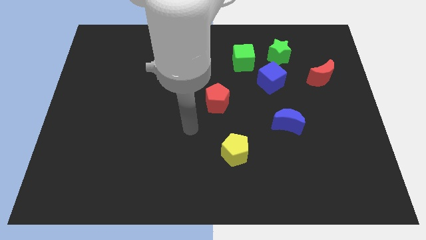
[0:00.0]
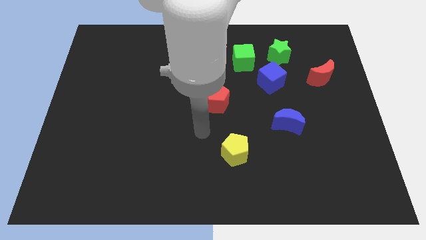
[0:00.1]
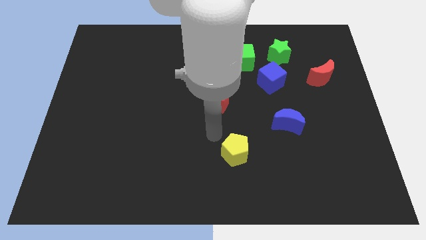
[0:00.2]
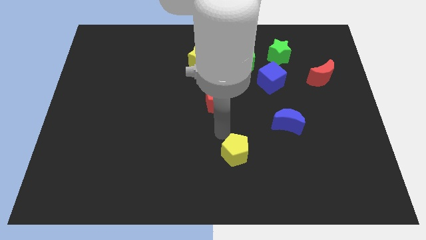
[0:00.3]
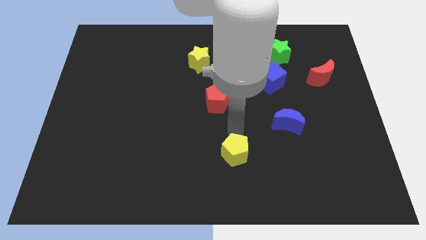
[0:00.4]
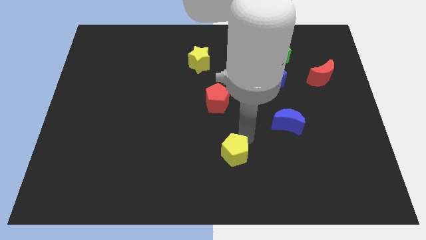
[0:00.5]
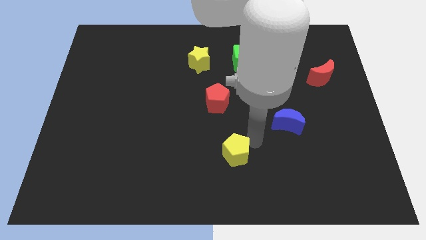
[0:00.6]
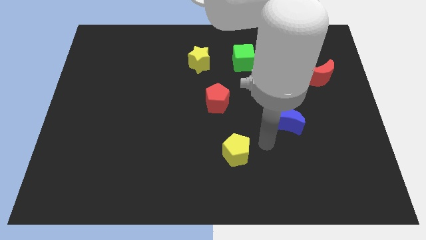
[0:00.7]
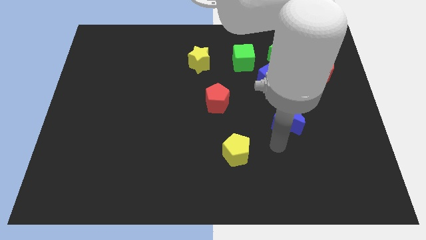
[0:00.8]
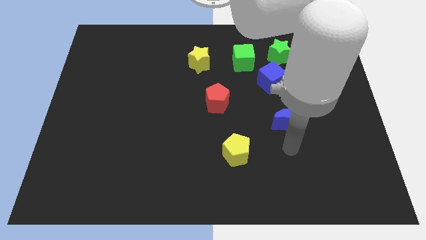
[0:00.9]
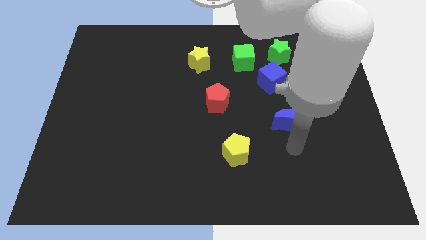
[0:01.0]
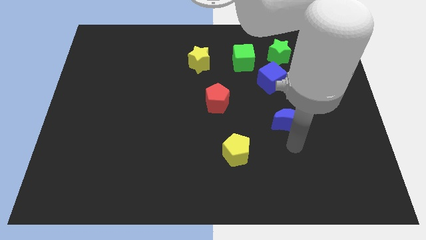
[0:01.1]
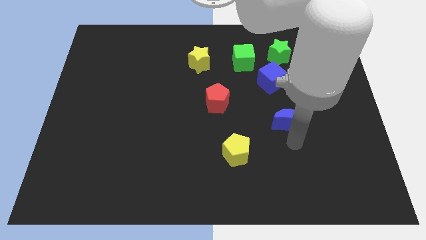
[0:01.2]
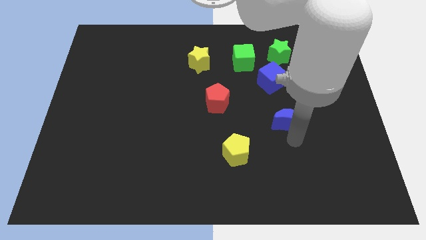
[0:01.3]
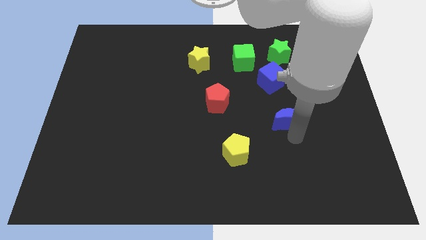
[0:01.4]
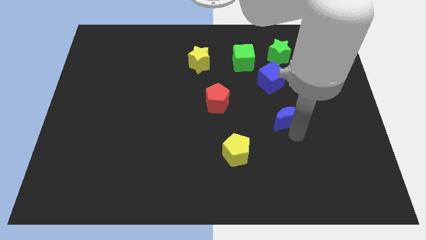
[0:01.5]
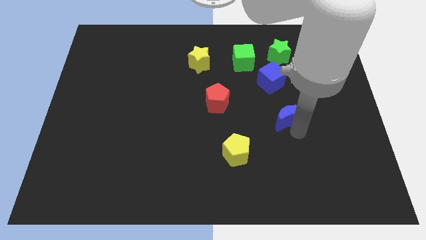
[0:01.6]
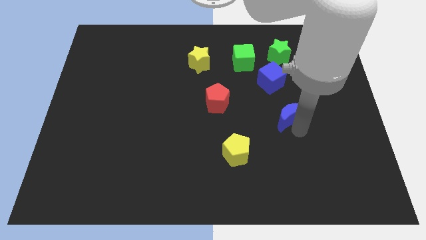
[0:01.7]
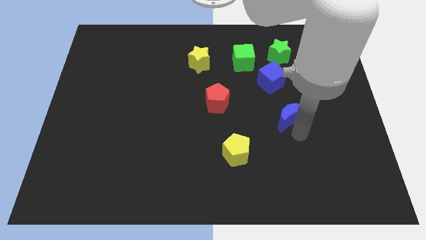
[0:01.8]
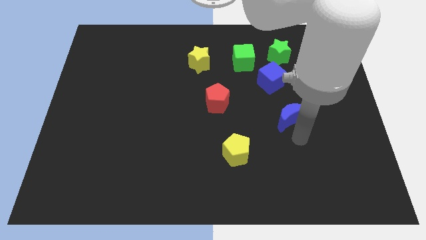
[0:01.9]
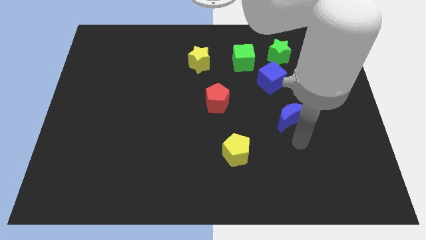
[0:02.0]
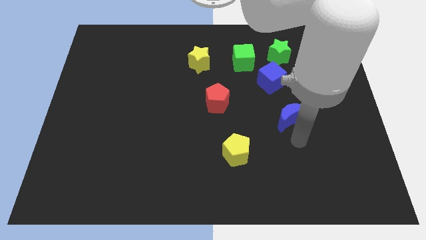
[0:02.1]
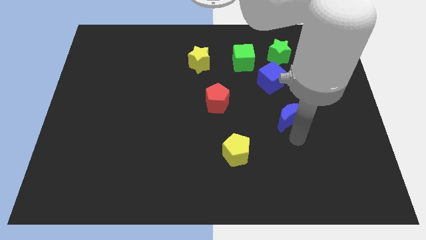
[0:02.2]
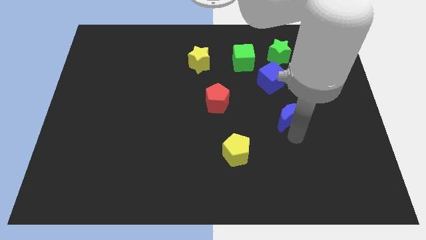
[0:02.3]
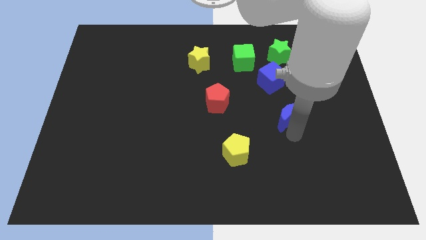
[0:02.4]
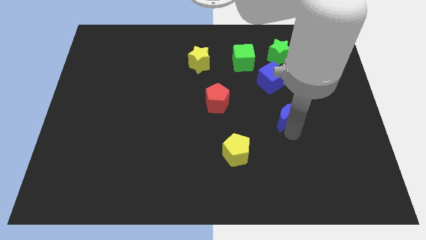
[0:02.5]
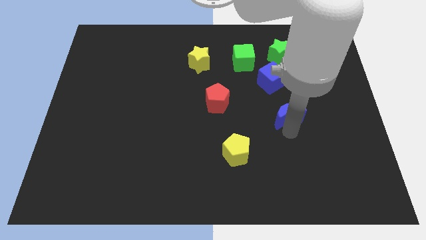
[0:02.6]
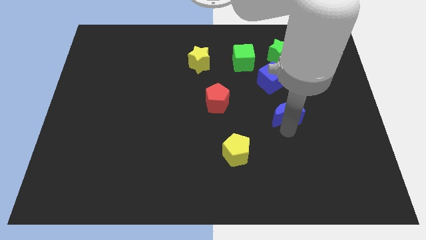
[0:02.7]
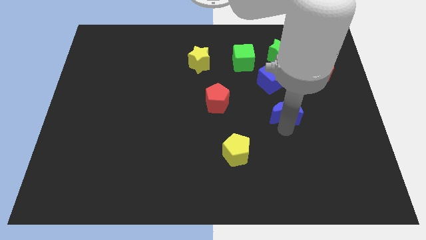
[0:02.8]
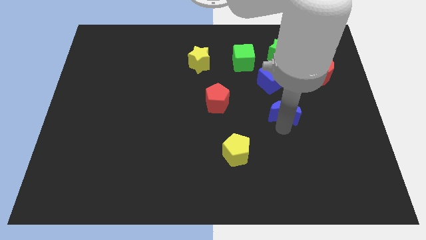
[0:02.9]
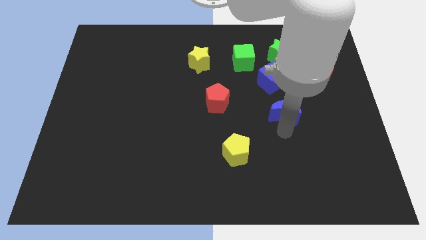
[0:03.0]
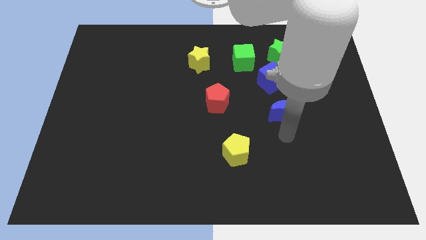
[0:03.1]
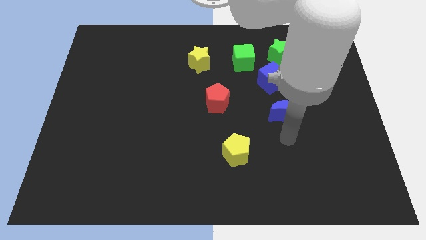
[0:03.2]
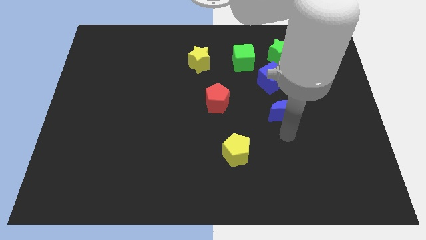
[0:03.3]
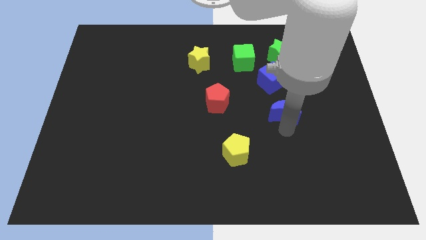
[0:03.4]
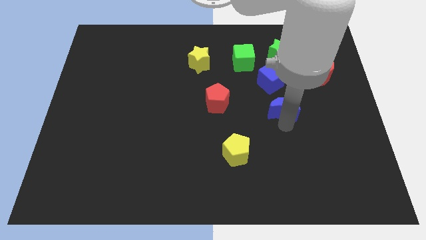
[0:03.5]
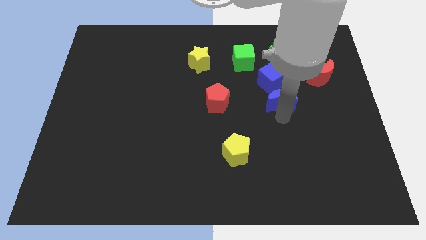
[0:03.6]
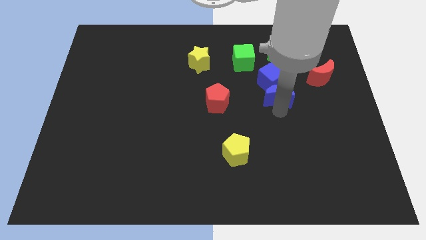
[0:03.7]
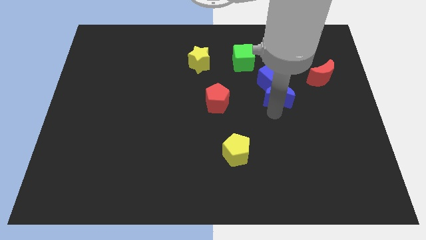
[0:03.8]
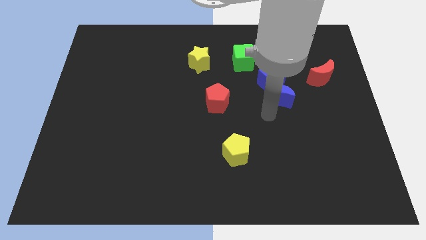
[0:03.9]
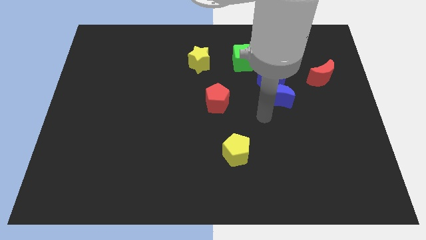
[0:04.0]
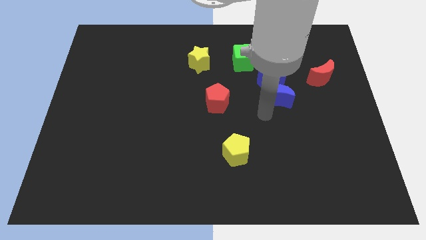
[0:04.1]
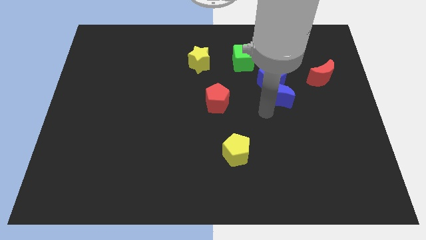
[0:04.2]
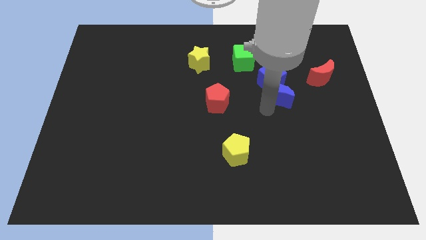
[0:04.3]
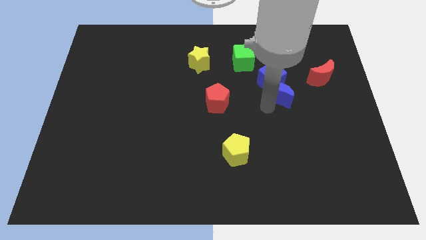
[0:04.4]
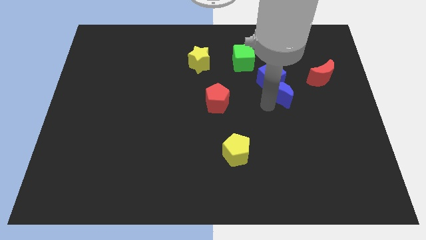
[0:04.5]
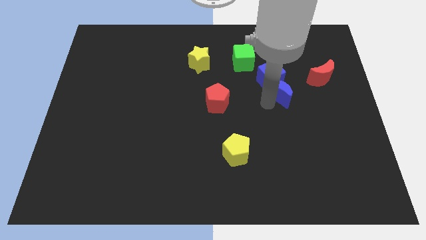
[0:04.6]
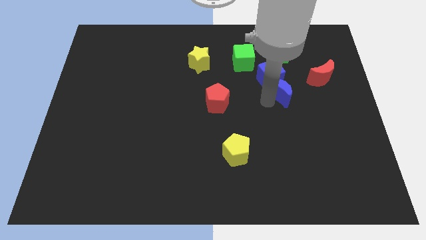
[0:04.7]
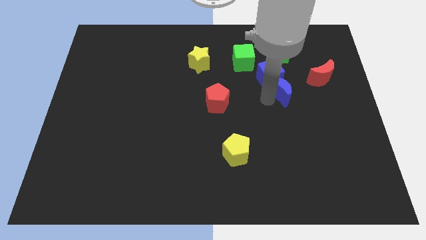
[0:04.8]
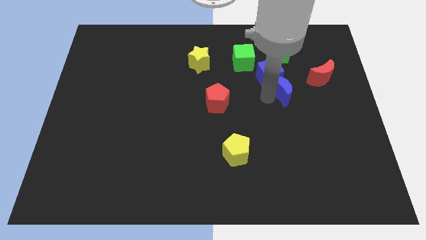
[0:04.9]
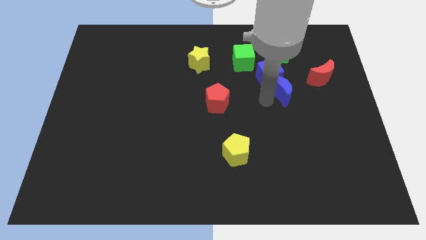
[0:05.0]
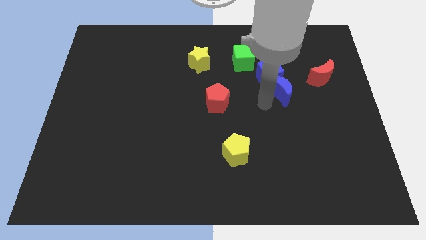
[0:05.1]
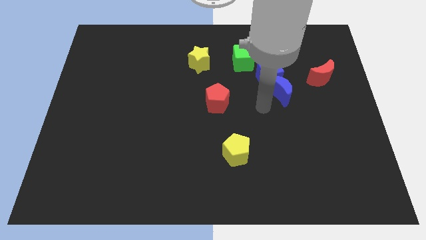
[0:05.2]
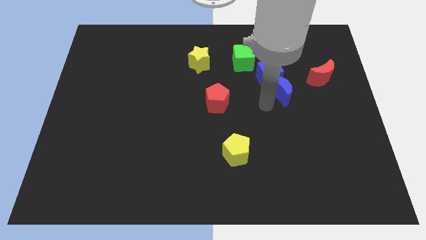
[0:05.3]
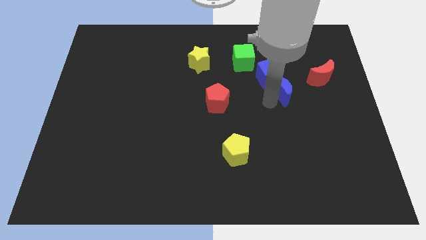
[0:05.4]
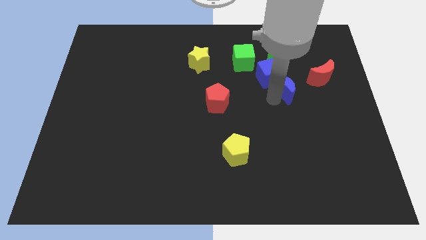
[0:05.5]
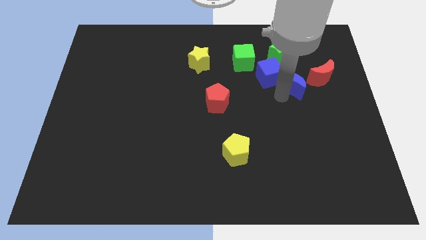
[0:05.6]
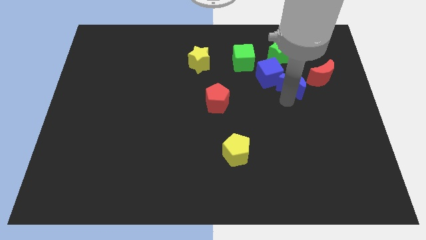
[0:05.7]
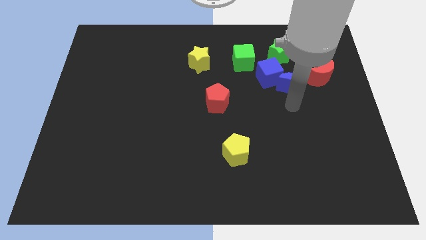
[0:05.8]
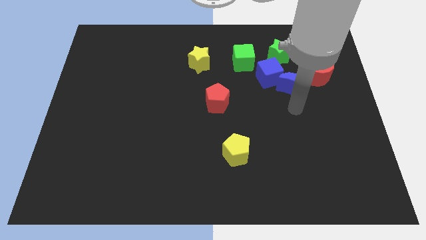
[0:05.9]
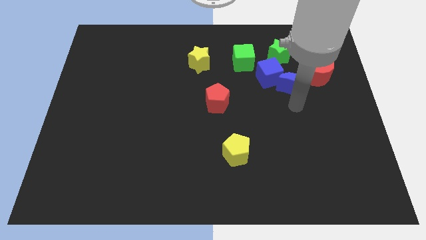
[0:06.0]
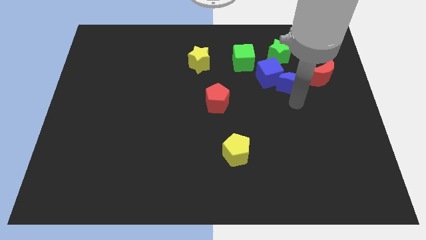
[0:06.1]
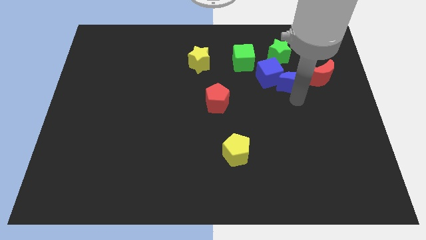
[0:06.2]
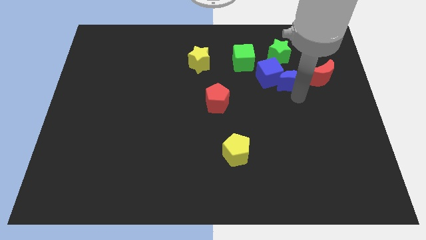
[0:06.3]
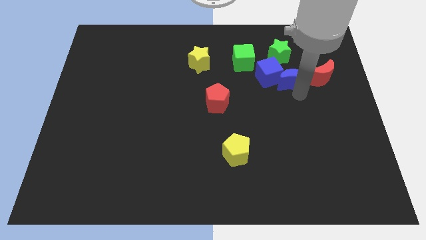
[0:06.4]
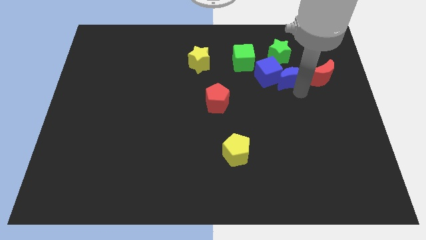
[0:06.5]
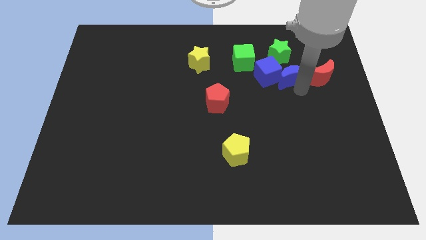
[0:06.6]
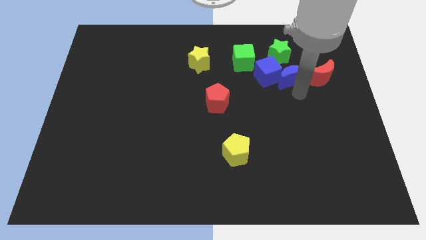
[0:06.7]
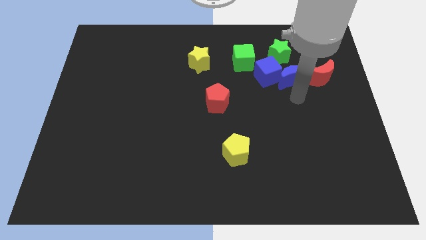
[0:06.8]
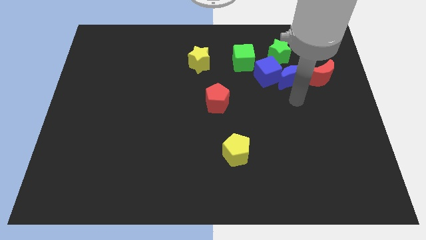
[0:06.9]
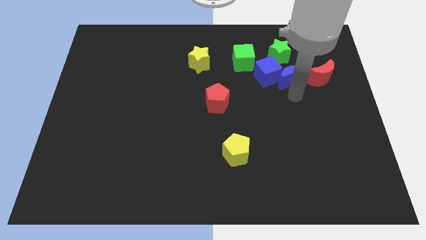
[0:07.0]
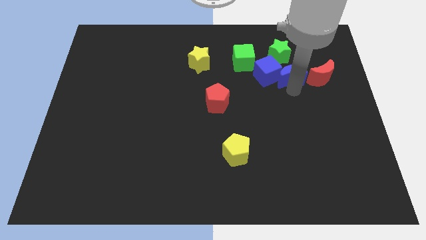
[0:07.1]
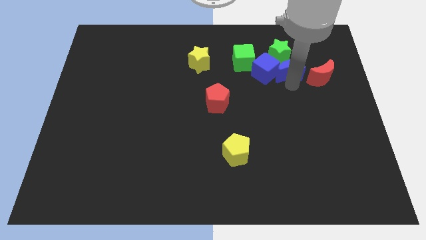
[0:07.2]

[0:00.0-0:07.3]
put the blue moon to the top right side of the blue cube
